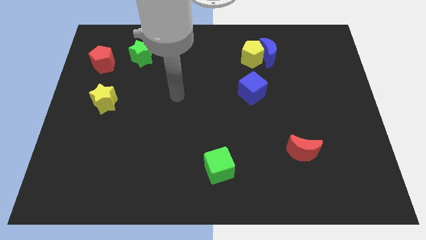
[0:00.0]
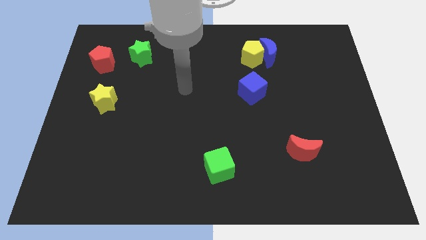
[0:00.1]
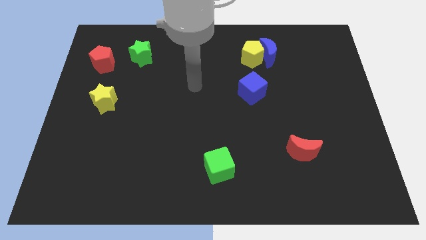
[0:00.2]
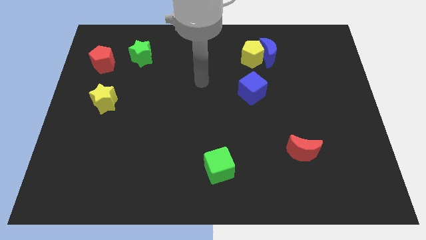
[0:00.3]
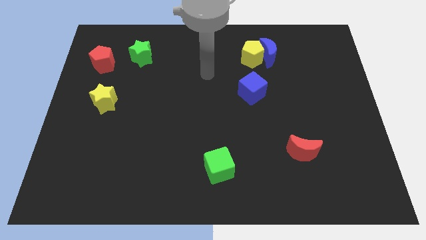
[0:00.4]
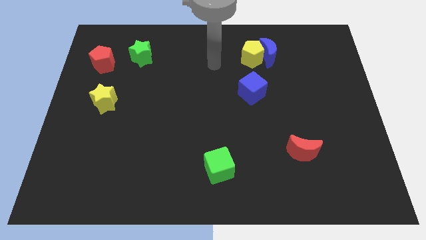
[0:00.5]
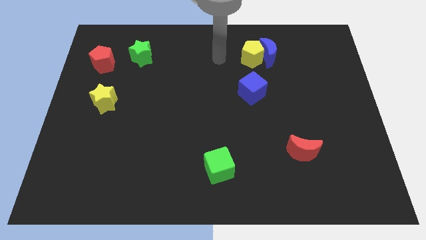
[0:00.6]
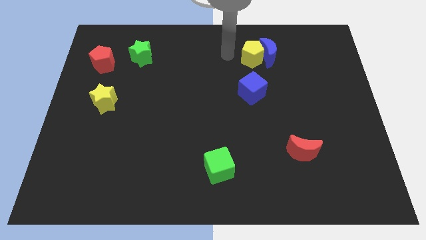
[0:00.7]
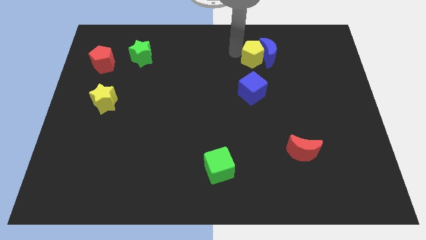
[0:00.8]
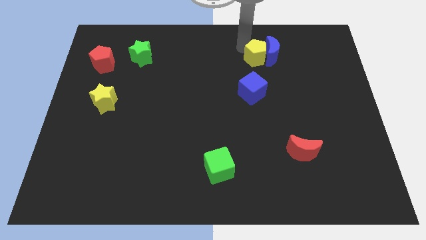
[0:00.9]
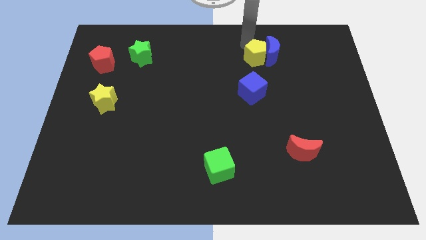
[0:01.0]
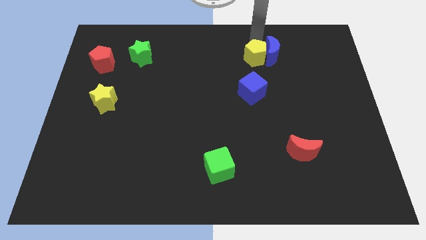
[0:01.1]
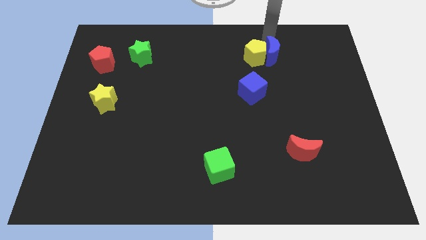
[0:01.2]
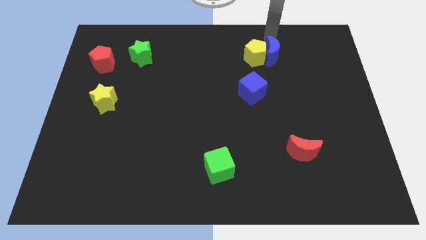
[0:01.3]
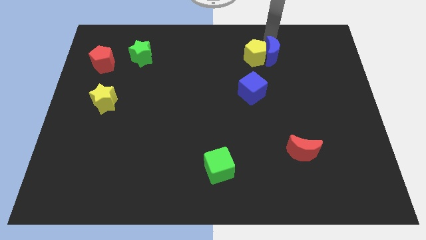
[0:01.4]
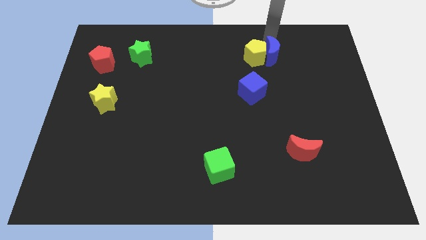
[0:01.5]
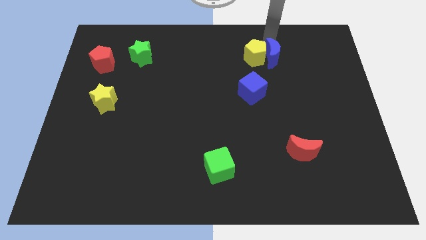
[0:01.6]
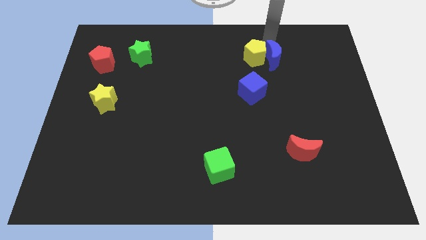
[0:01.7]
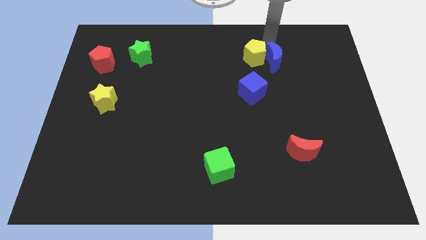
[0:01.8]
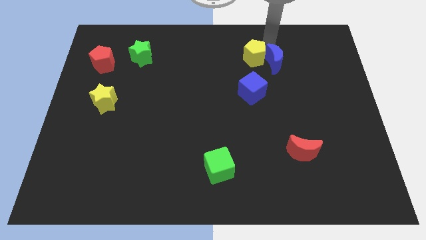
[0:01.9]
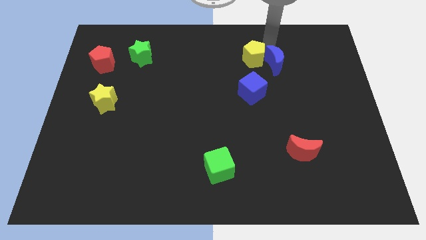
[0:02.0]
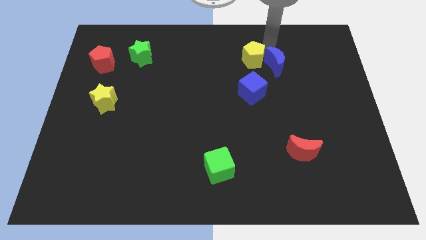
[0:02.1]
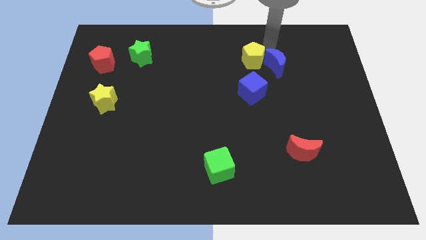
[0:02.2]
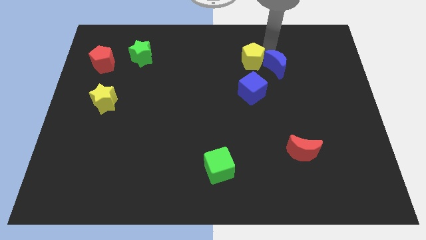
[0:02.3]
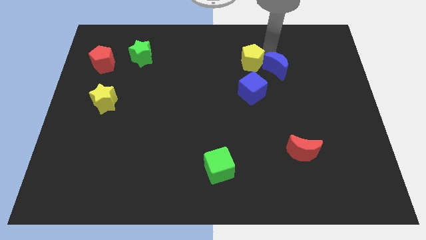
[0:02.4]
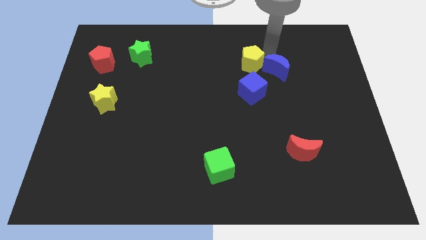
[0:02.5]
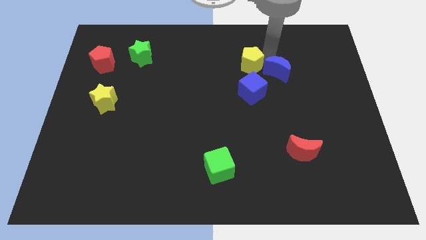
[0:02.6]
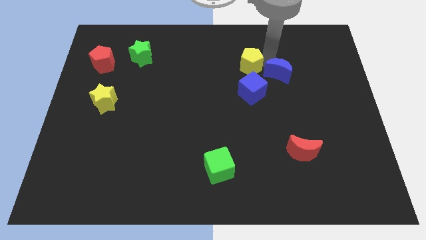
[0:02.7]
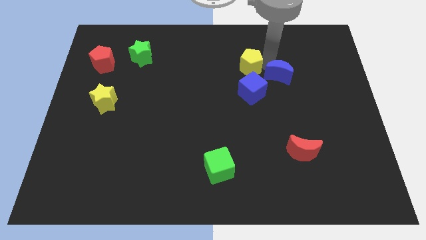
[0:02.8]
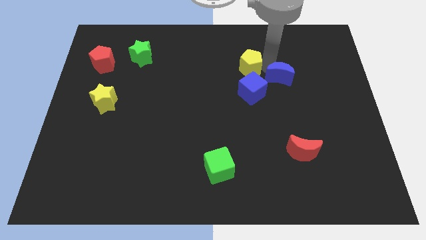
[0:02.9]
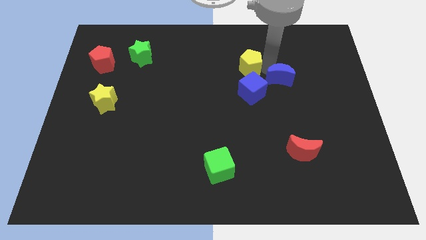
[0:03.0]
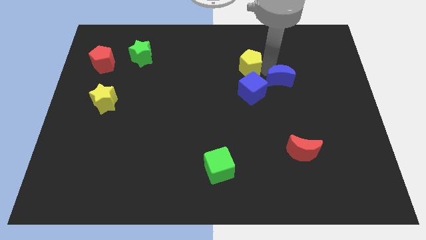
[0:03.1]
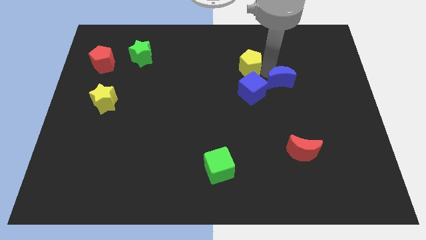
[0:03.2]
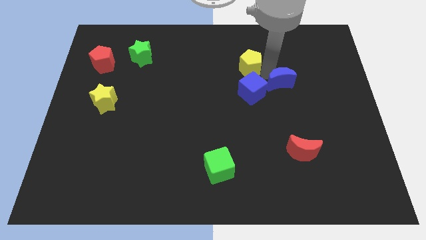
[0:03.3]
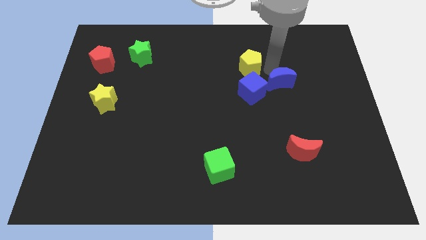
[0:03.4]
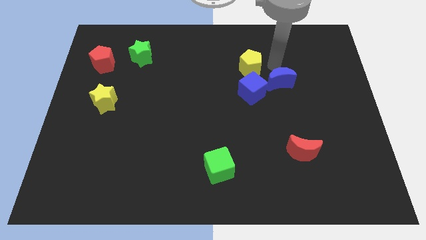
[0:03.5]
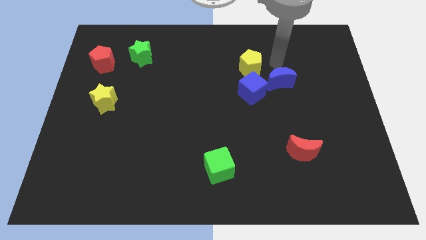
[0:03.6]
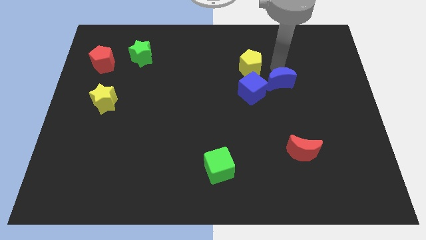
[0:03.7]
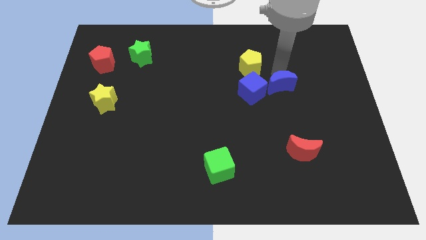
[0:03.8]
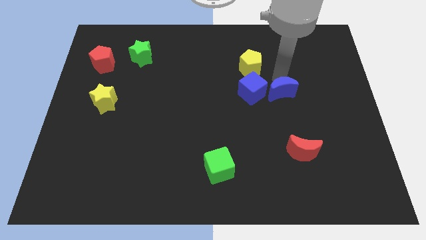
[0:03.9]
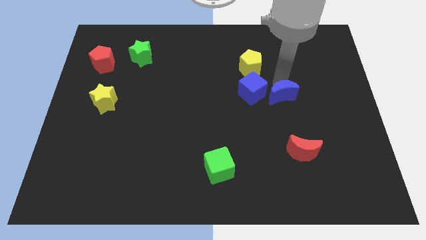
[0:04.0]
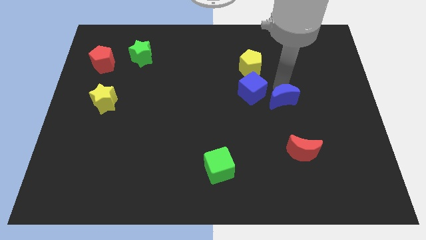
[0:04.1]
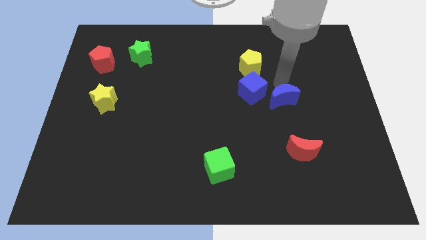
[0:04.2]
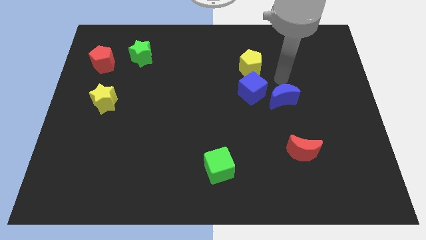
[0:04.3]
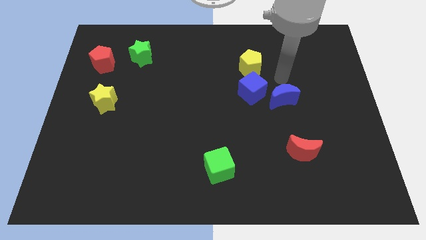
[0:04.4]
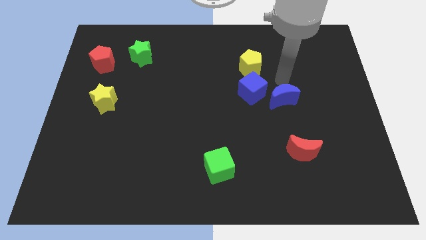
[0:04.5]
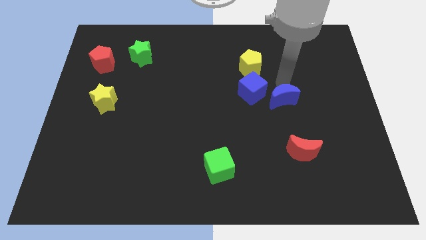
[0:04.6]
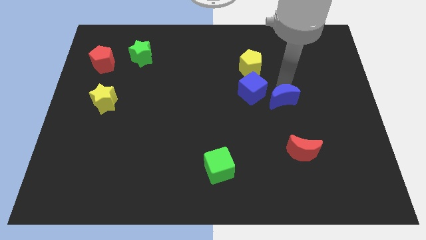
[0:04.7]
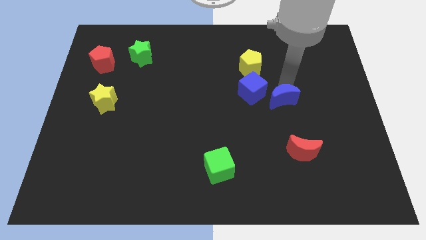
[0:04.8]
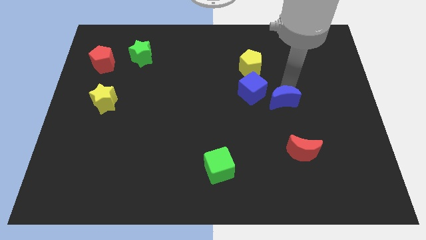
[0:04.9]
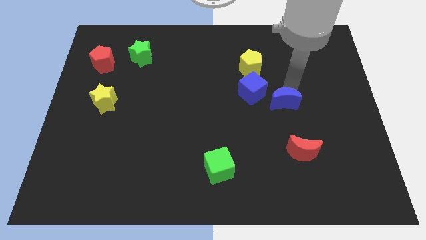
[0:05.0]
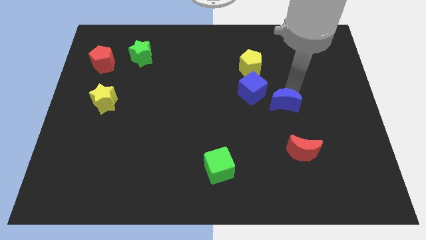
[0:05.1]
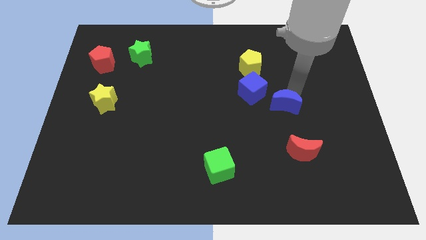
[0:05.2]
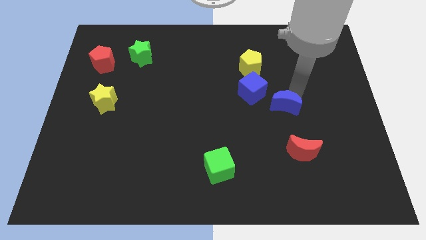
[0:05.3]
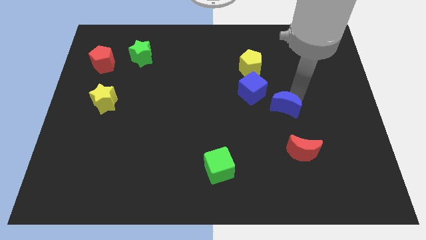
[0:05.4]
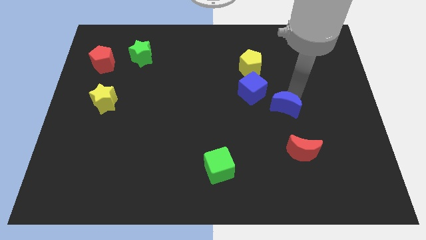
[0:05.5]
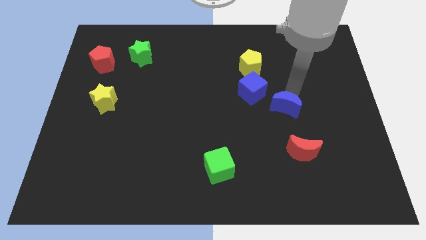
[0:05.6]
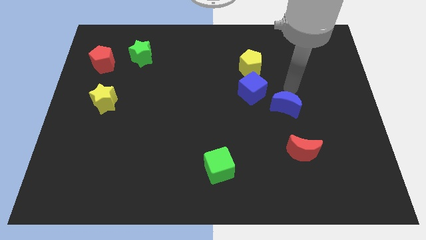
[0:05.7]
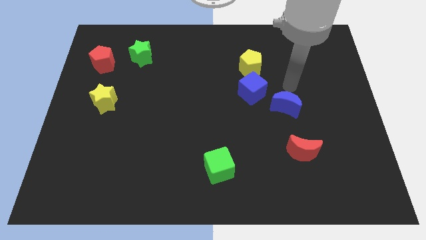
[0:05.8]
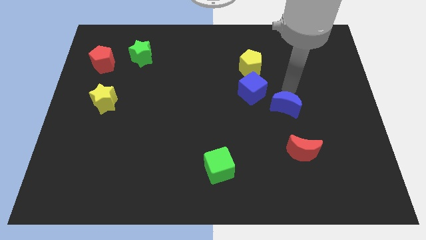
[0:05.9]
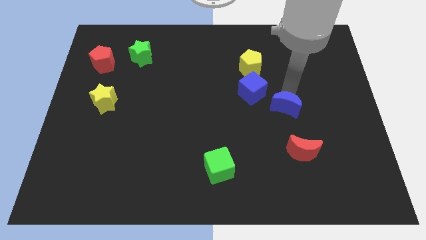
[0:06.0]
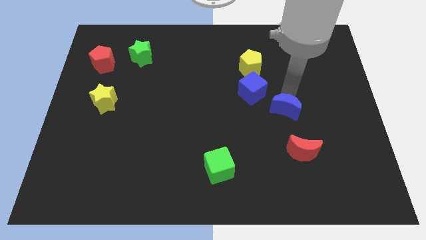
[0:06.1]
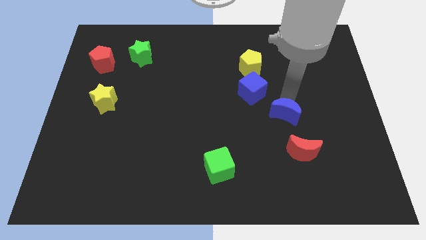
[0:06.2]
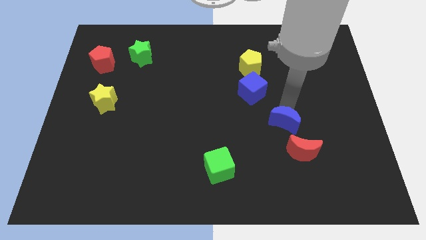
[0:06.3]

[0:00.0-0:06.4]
push the blue moon down

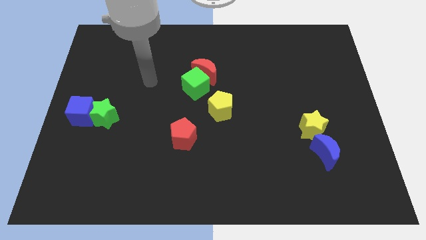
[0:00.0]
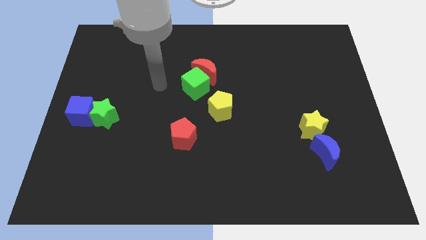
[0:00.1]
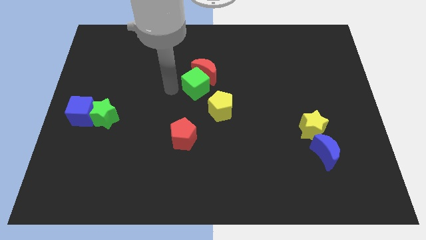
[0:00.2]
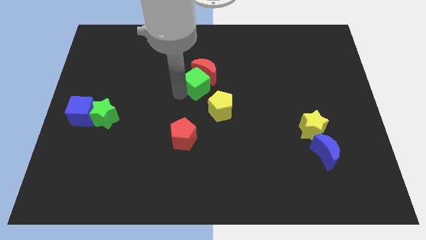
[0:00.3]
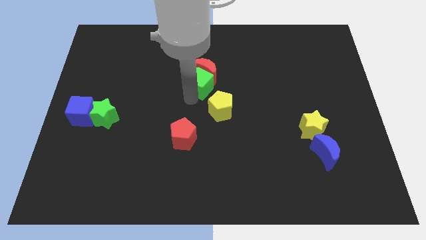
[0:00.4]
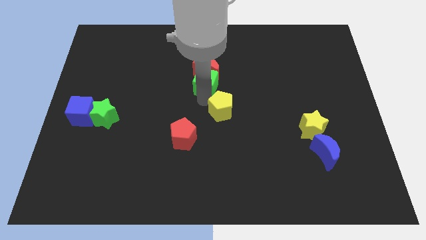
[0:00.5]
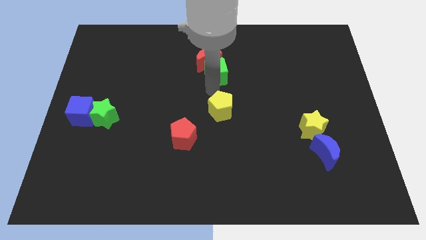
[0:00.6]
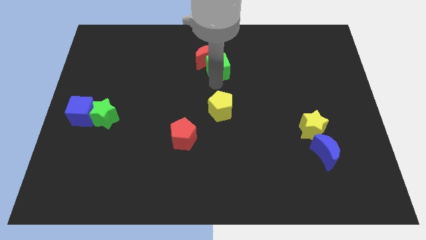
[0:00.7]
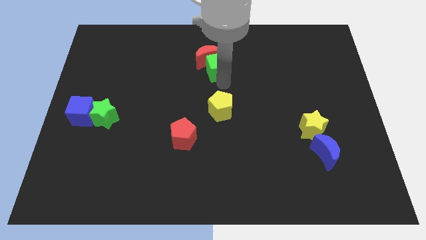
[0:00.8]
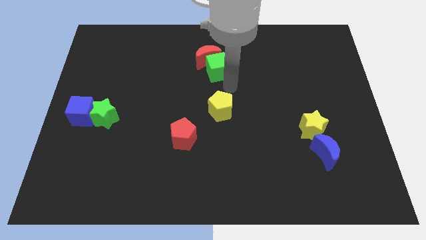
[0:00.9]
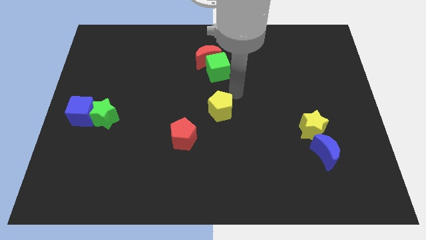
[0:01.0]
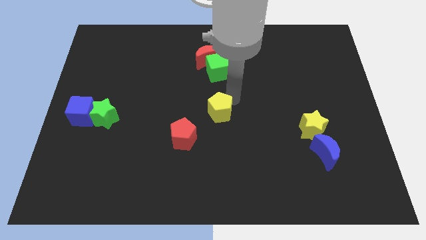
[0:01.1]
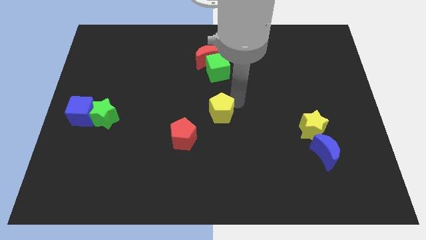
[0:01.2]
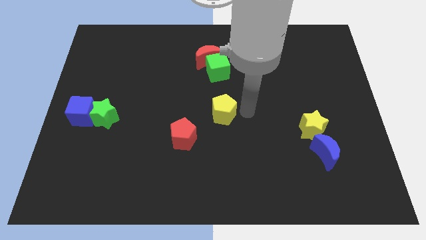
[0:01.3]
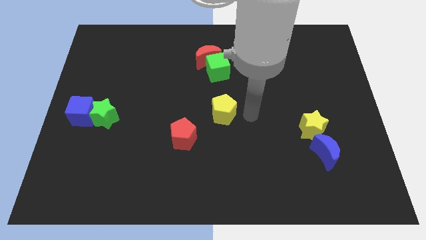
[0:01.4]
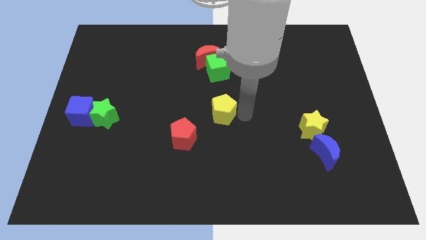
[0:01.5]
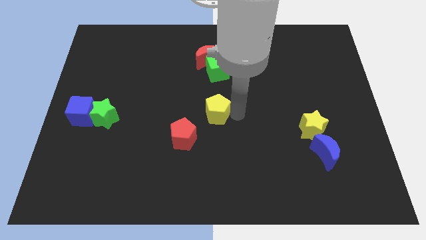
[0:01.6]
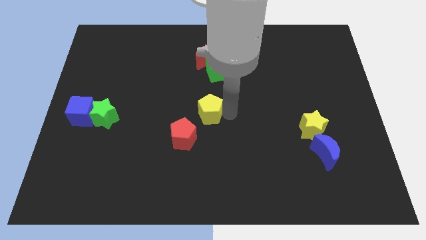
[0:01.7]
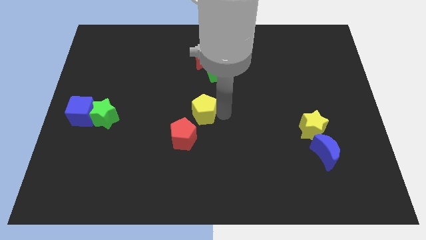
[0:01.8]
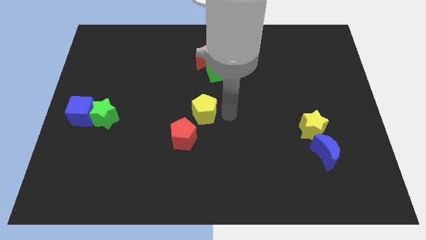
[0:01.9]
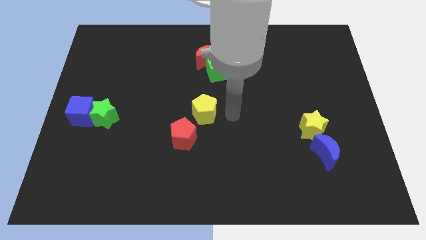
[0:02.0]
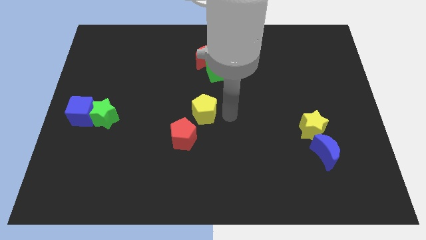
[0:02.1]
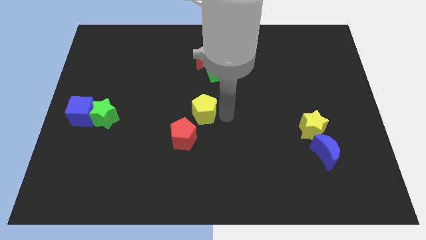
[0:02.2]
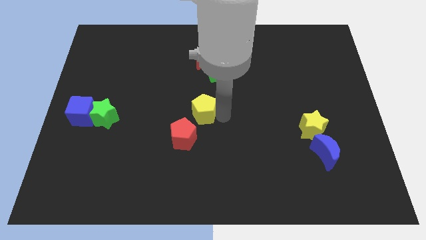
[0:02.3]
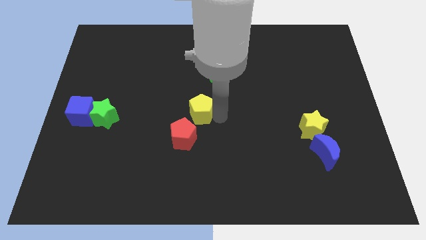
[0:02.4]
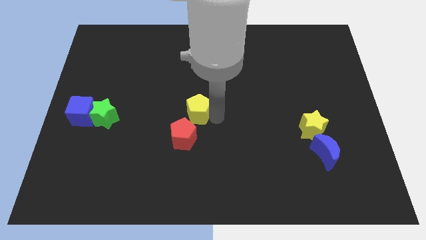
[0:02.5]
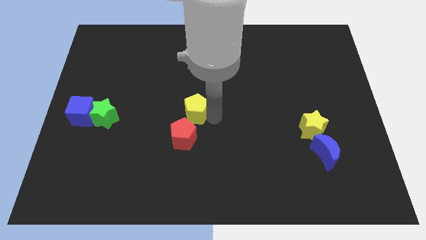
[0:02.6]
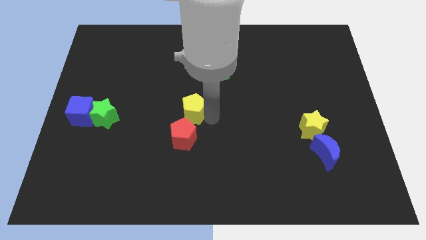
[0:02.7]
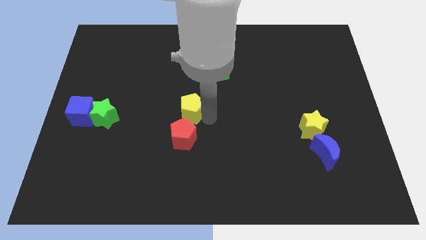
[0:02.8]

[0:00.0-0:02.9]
slightly push the yellow pentagon to the left
